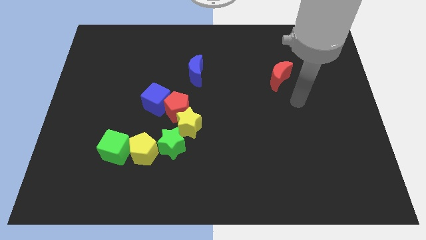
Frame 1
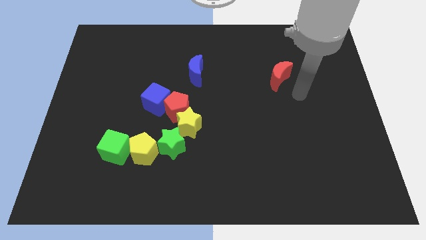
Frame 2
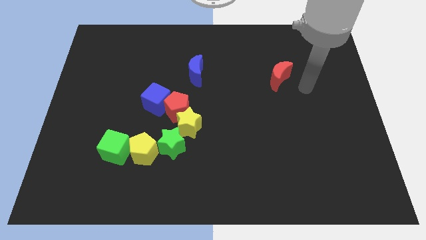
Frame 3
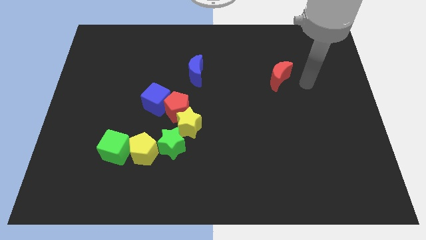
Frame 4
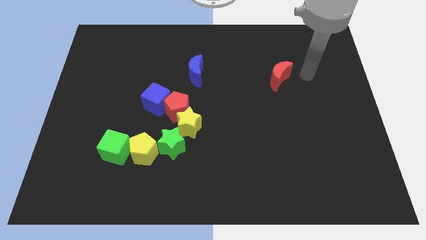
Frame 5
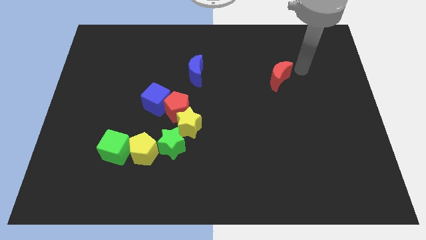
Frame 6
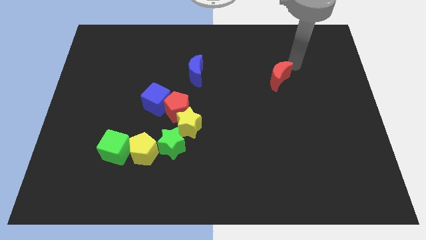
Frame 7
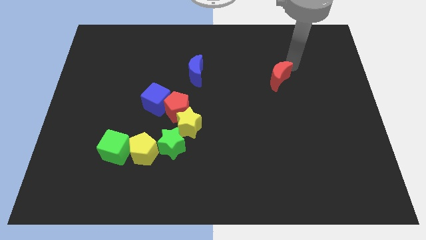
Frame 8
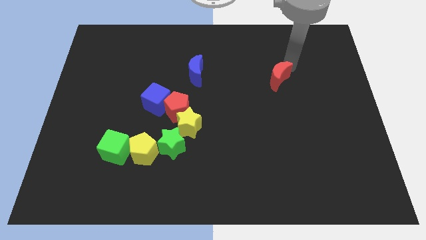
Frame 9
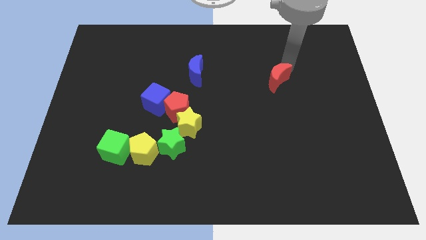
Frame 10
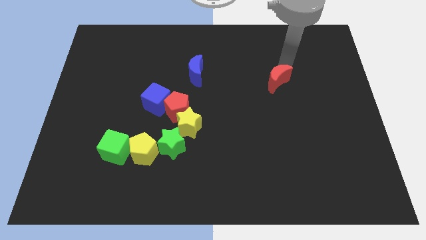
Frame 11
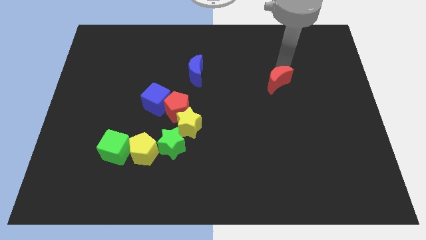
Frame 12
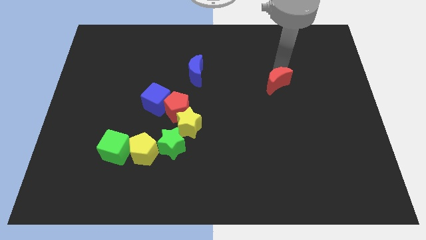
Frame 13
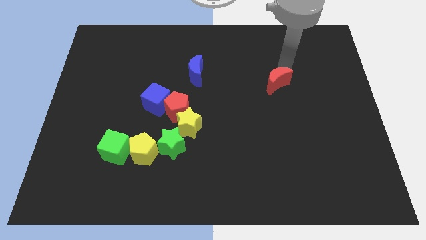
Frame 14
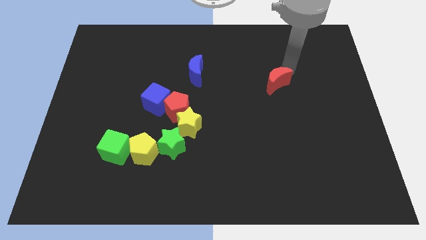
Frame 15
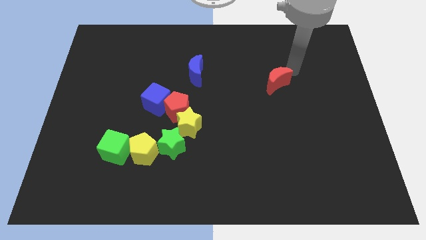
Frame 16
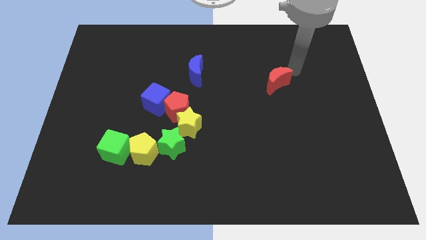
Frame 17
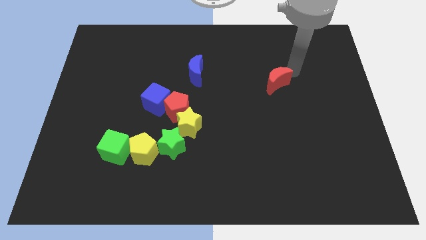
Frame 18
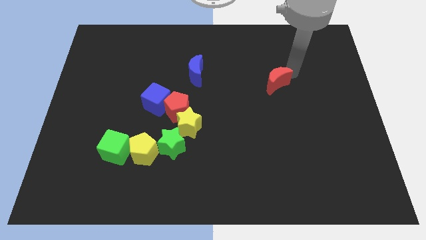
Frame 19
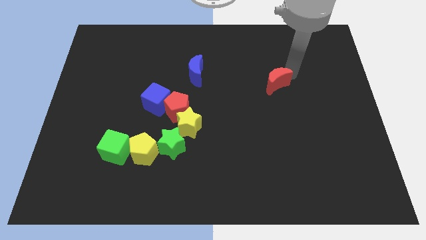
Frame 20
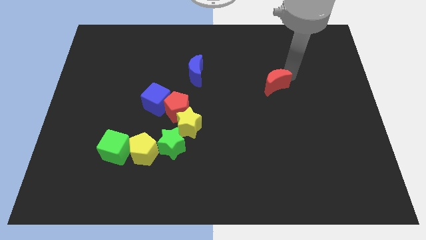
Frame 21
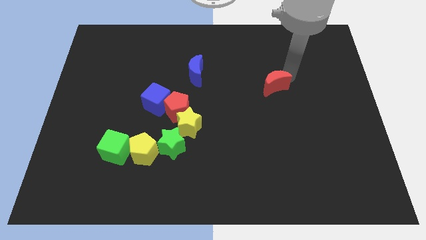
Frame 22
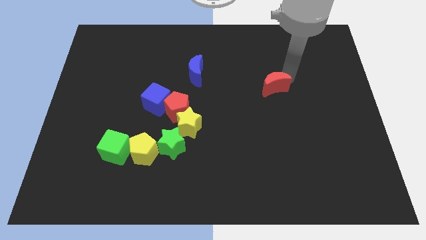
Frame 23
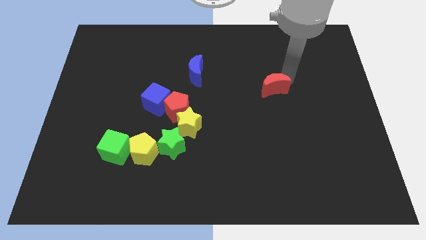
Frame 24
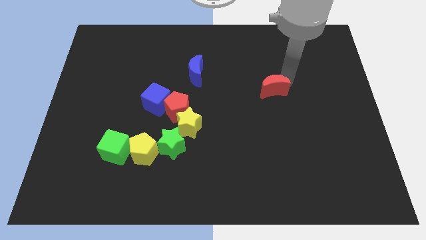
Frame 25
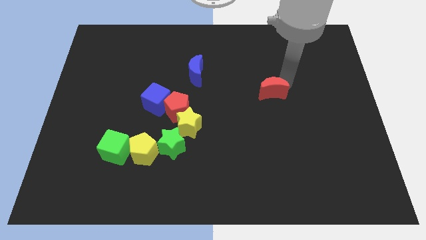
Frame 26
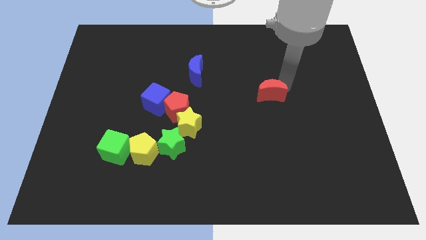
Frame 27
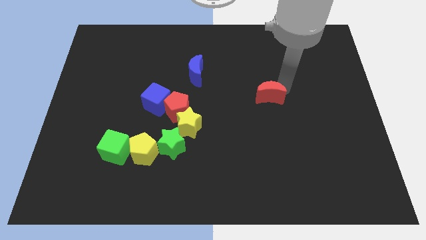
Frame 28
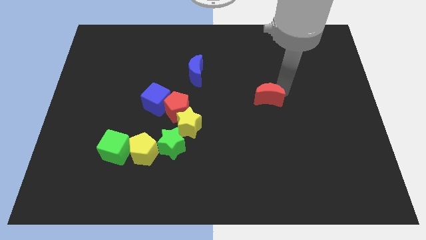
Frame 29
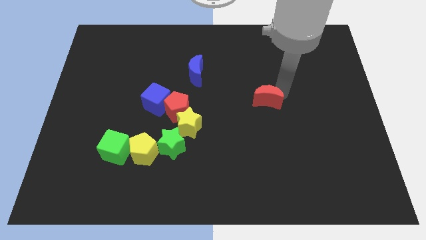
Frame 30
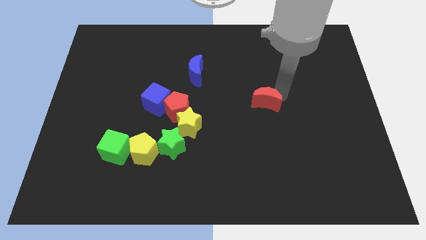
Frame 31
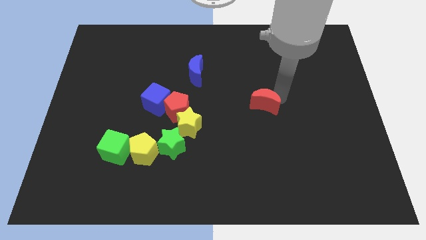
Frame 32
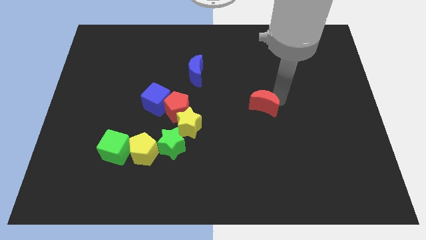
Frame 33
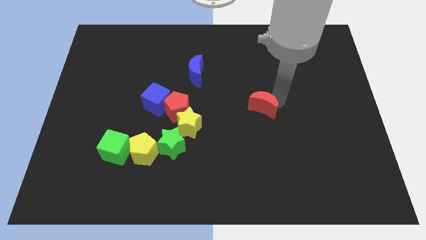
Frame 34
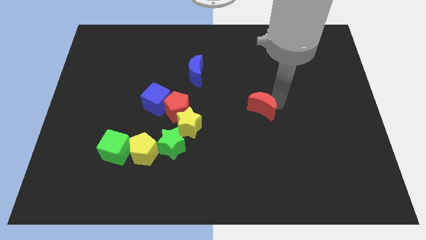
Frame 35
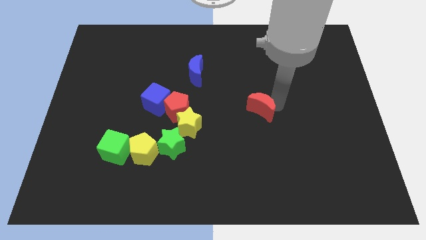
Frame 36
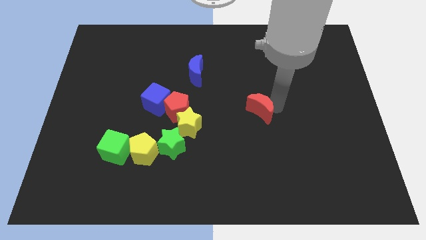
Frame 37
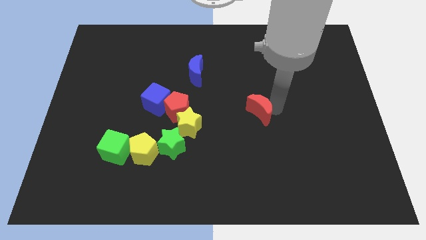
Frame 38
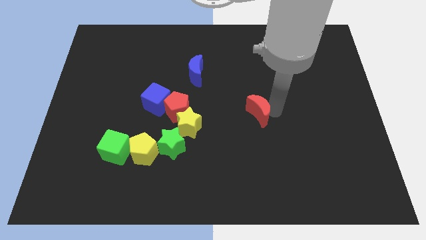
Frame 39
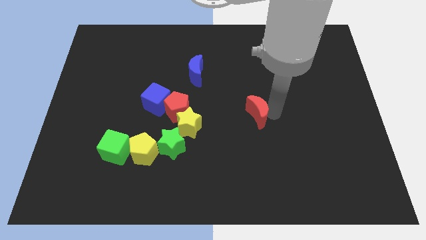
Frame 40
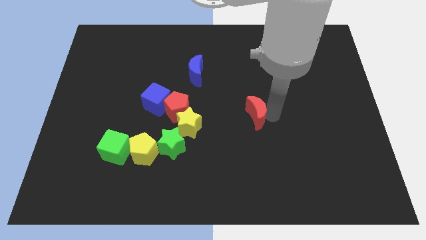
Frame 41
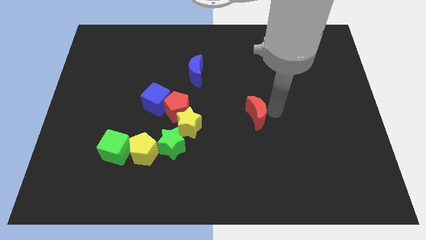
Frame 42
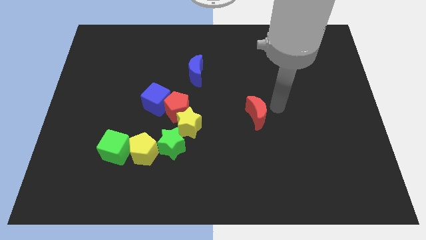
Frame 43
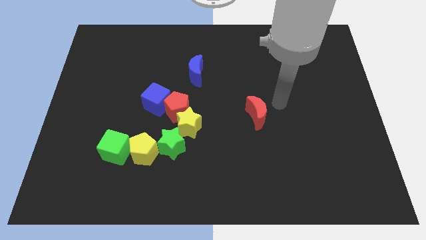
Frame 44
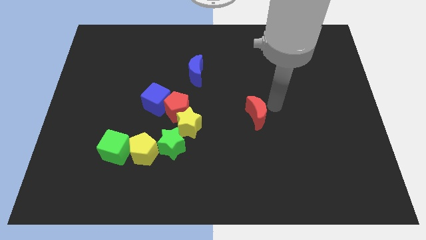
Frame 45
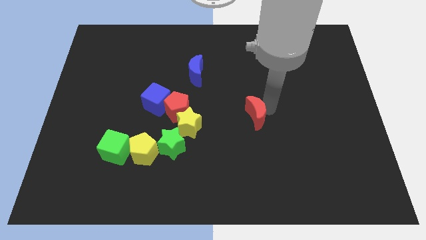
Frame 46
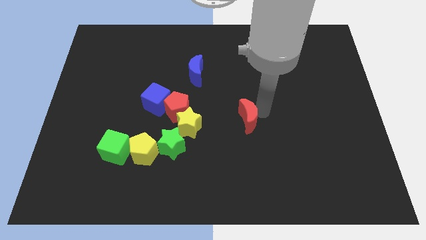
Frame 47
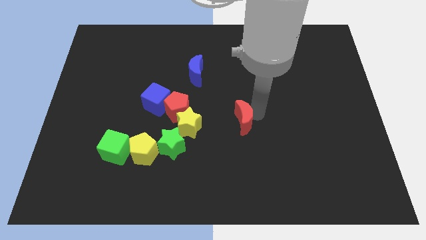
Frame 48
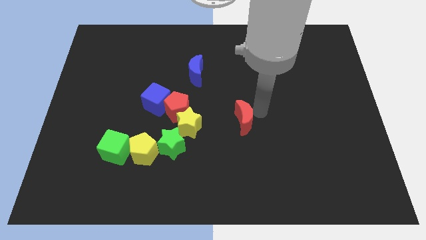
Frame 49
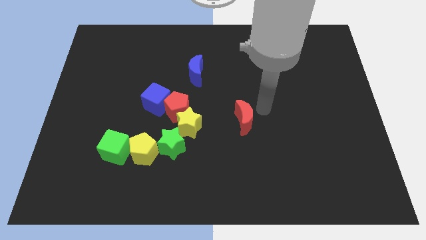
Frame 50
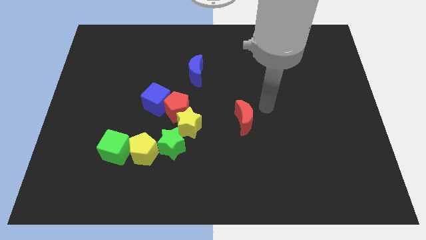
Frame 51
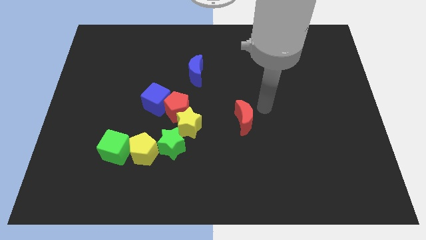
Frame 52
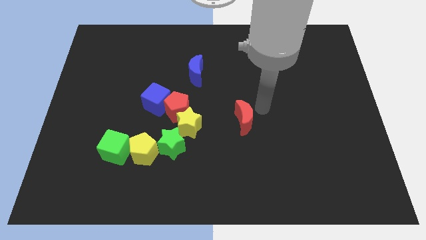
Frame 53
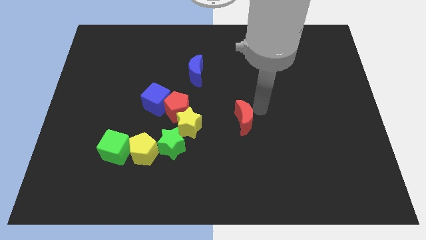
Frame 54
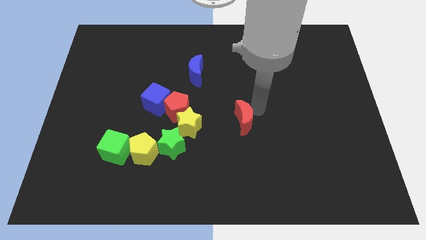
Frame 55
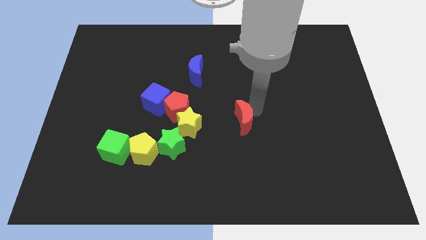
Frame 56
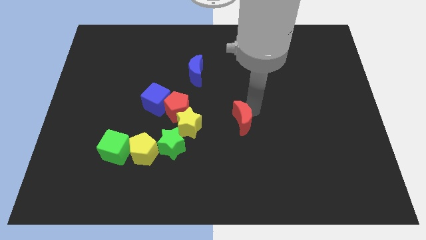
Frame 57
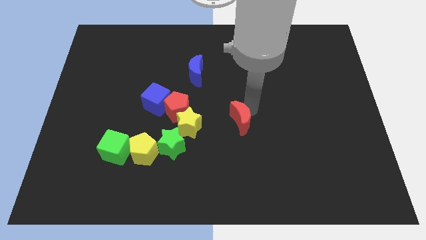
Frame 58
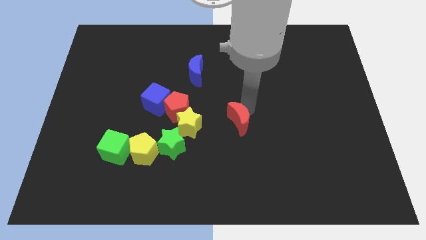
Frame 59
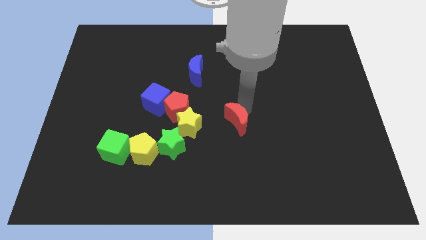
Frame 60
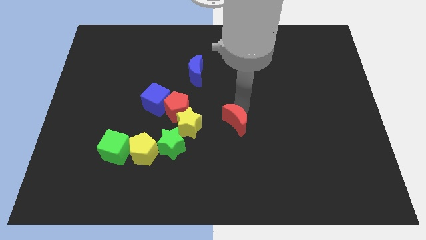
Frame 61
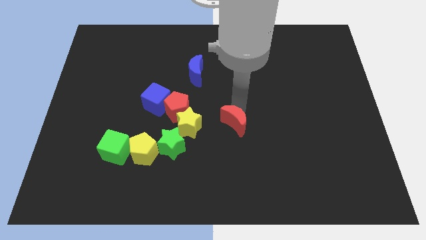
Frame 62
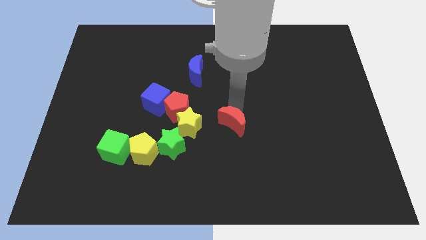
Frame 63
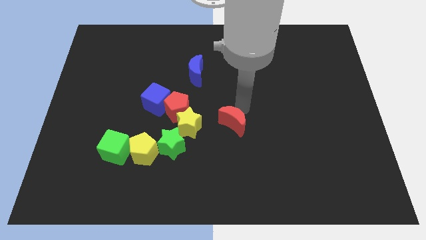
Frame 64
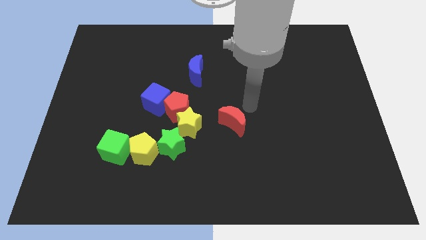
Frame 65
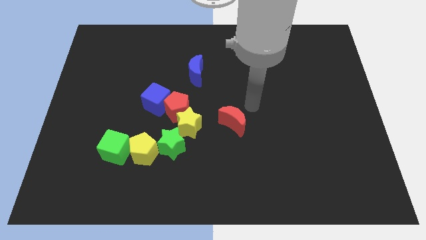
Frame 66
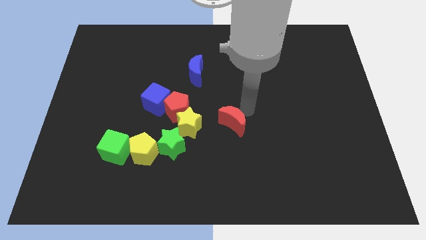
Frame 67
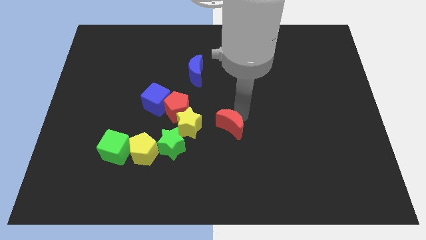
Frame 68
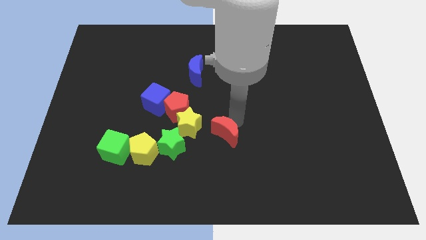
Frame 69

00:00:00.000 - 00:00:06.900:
move the red moon diagonally down and left

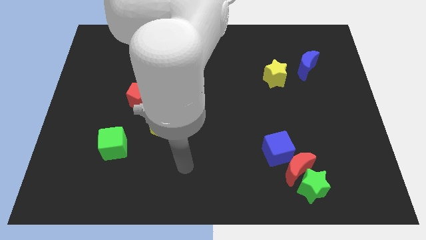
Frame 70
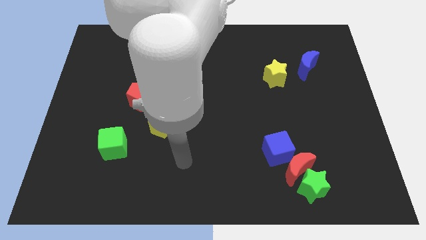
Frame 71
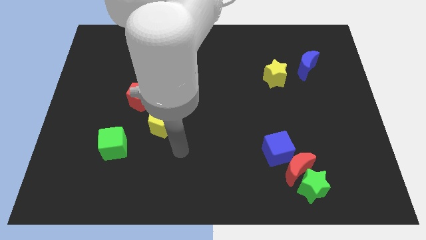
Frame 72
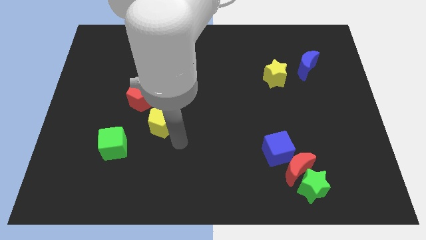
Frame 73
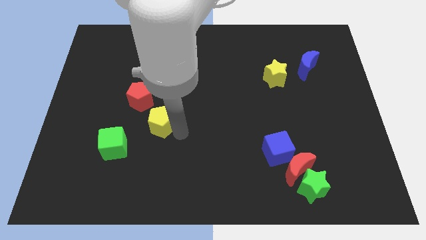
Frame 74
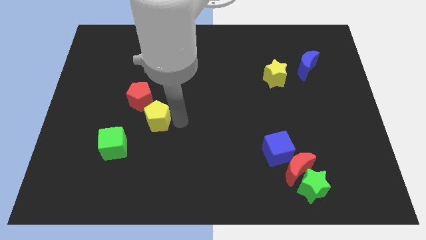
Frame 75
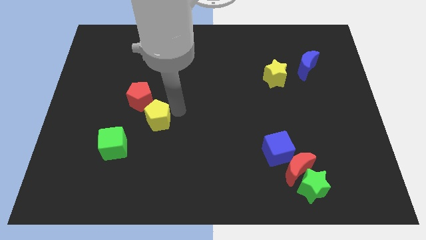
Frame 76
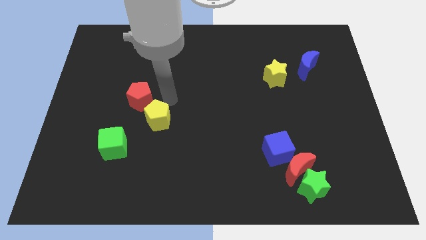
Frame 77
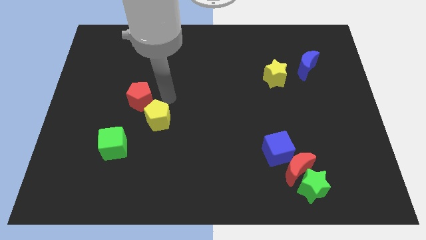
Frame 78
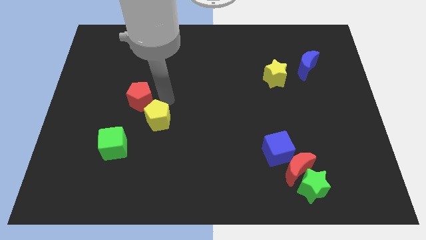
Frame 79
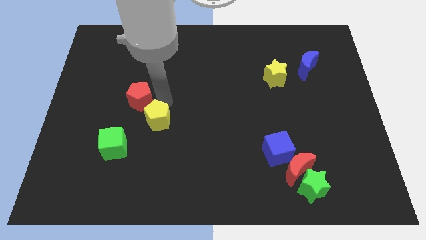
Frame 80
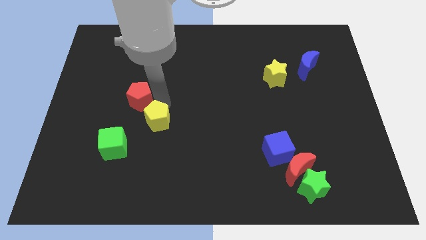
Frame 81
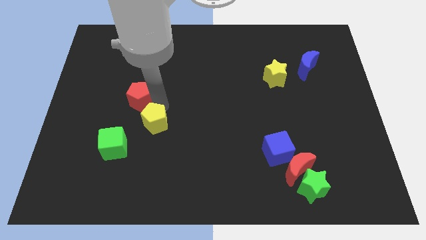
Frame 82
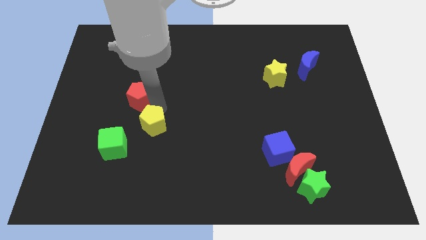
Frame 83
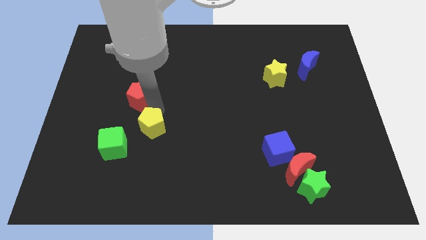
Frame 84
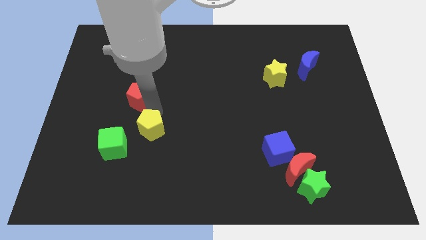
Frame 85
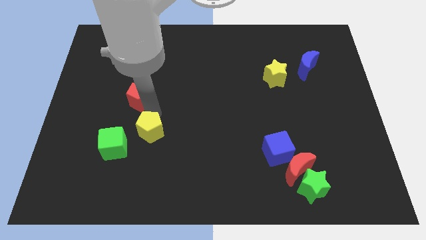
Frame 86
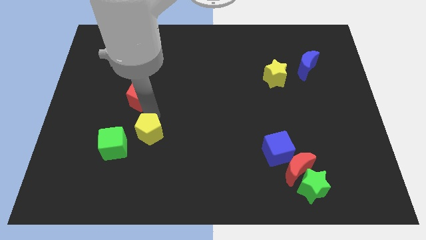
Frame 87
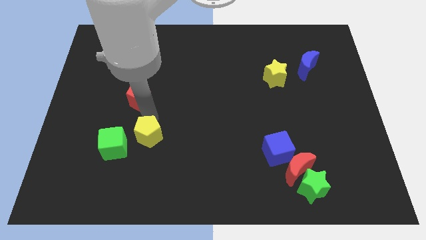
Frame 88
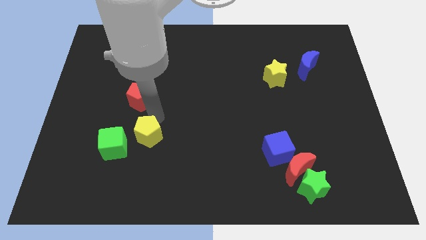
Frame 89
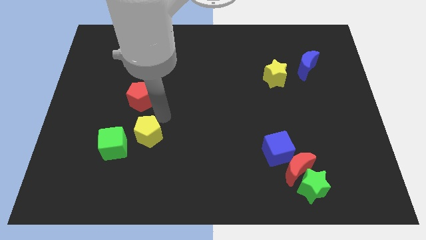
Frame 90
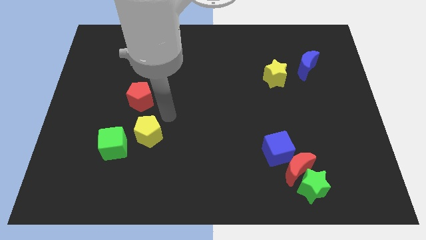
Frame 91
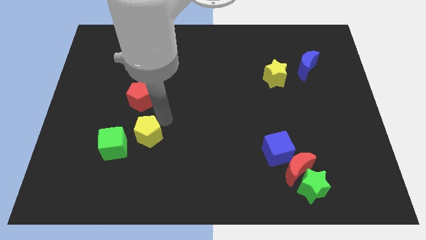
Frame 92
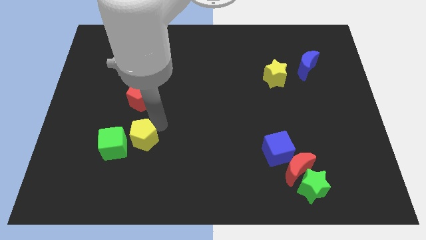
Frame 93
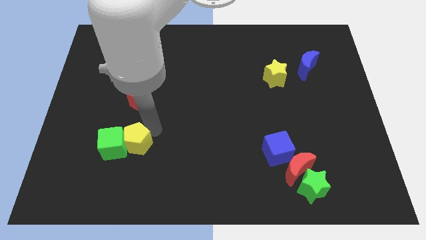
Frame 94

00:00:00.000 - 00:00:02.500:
slide the yellow pentagon down and to the left somewhat
